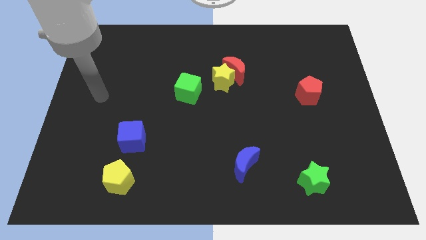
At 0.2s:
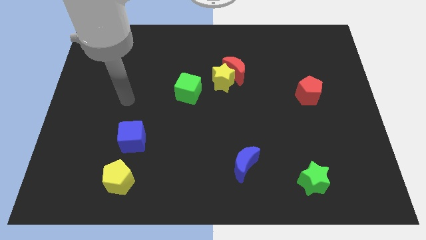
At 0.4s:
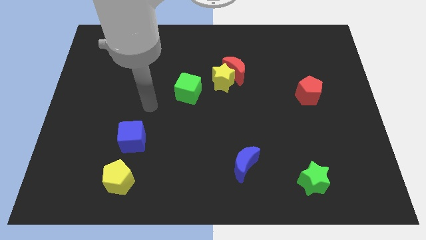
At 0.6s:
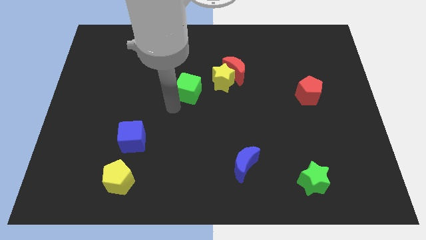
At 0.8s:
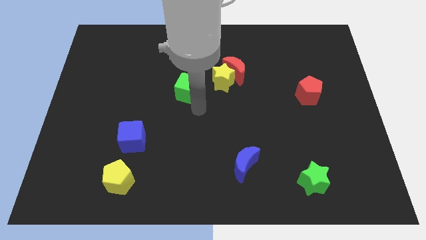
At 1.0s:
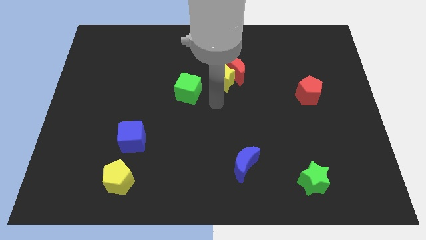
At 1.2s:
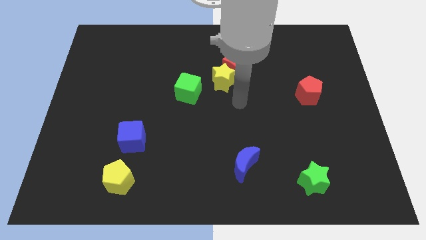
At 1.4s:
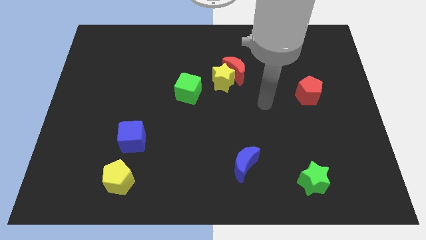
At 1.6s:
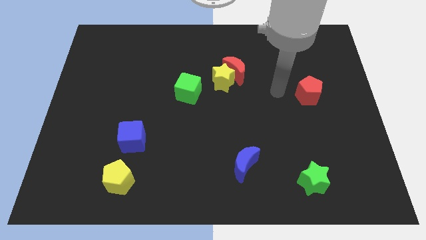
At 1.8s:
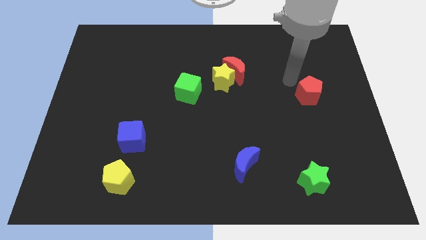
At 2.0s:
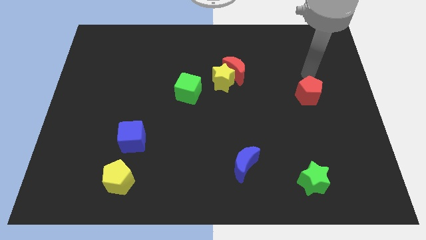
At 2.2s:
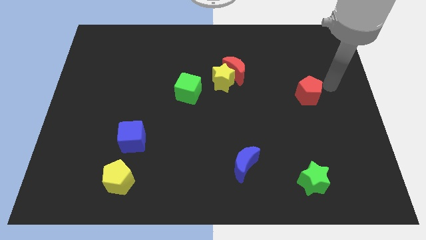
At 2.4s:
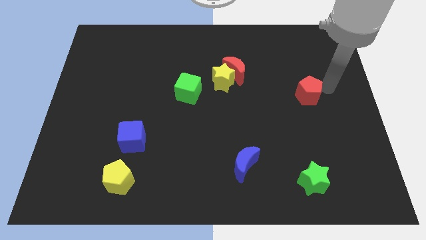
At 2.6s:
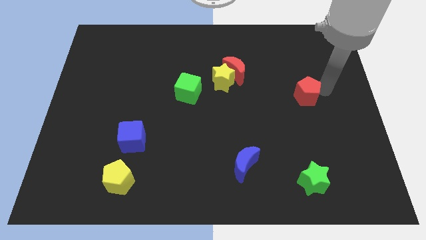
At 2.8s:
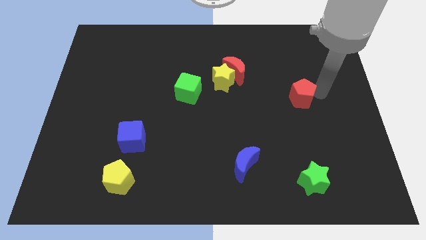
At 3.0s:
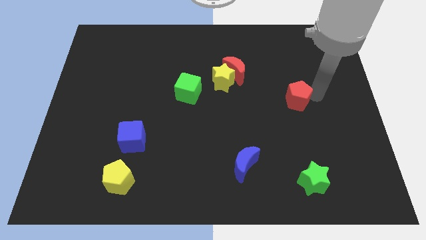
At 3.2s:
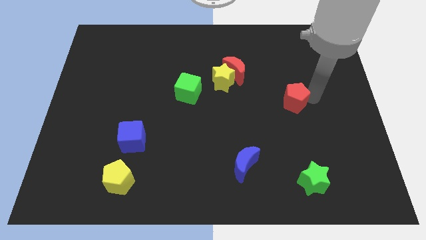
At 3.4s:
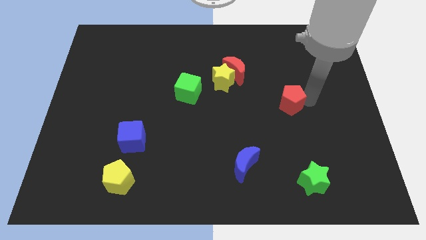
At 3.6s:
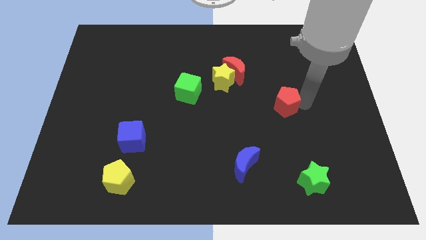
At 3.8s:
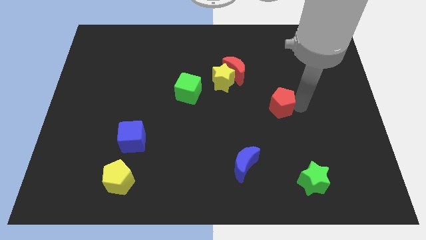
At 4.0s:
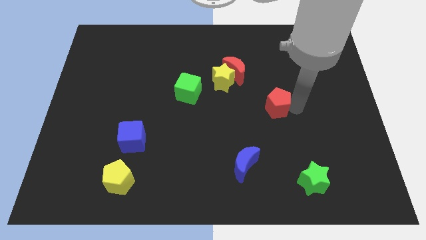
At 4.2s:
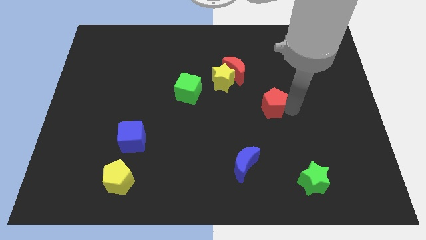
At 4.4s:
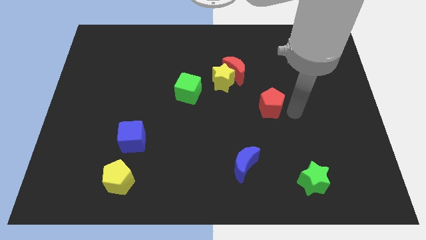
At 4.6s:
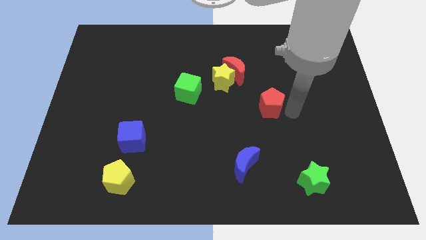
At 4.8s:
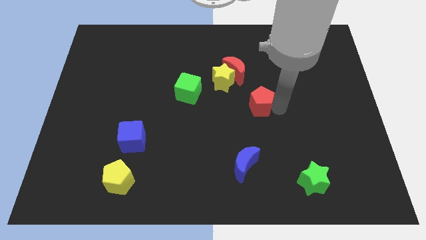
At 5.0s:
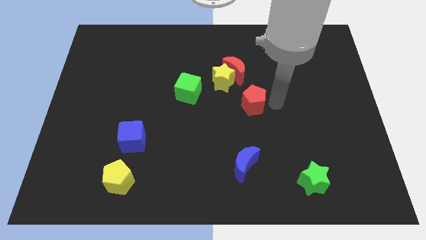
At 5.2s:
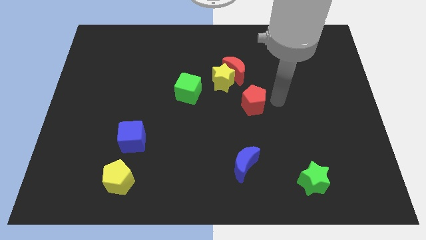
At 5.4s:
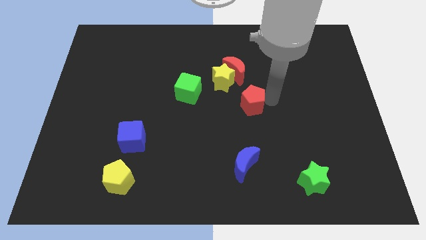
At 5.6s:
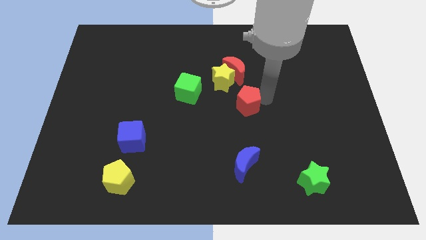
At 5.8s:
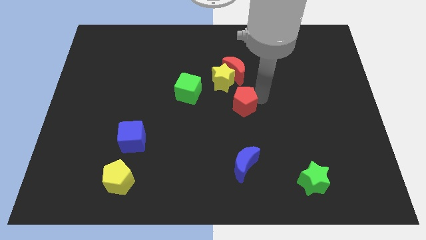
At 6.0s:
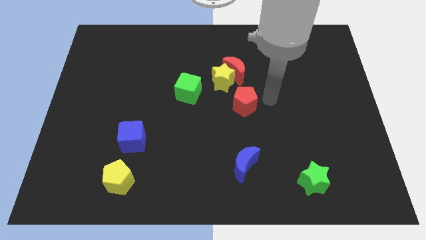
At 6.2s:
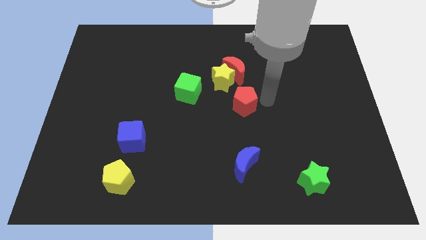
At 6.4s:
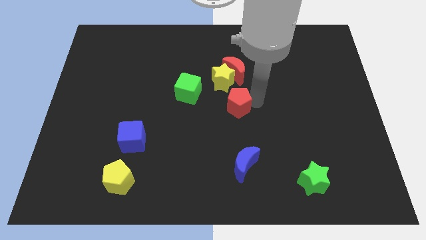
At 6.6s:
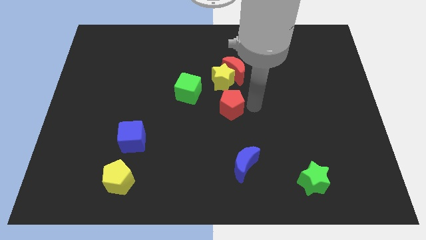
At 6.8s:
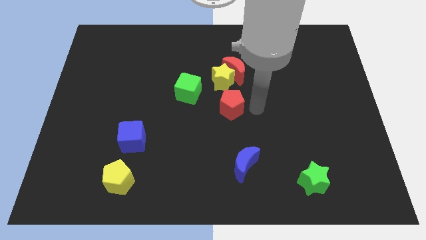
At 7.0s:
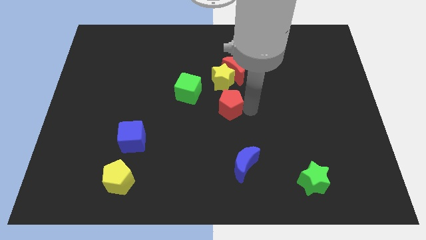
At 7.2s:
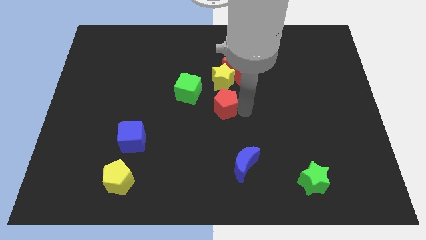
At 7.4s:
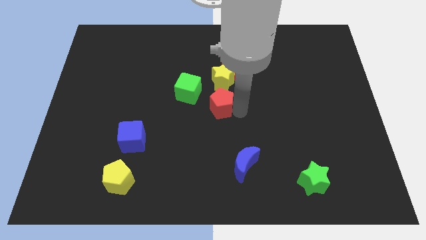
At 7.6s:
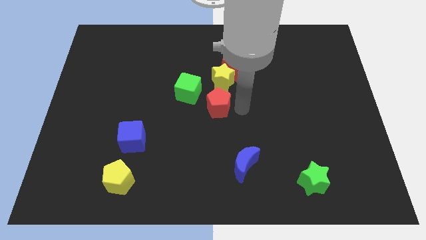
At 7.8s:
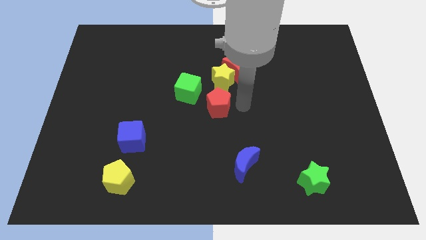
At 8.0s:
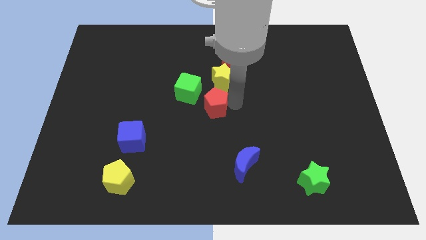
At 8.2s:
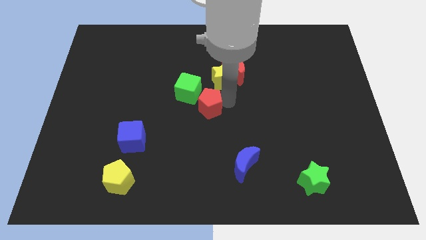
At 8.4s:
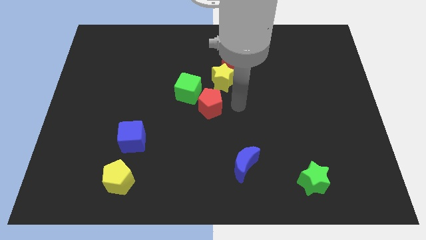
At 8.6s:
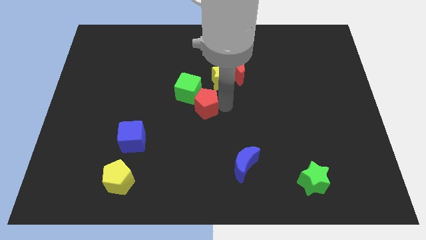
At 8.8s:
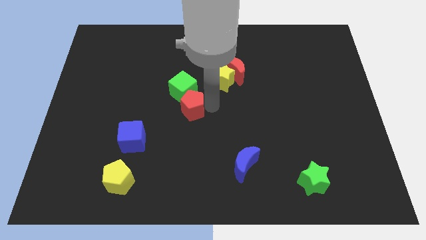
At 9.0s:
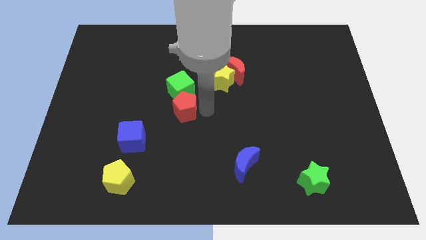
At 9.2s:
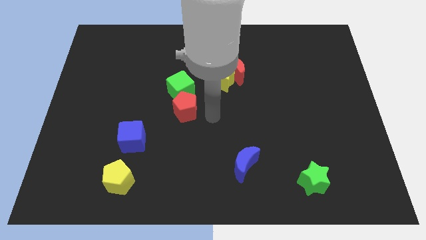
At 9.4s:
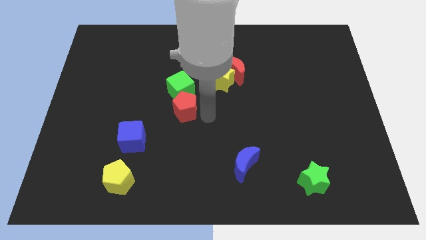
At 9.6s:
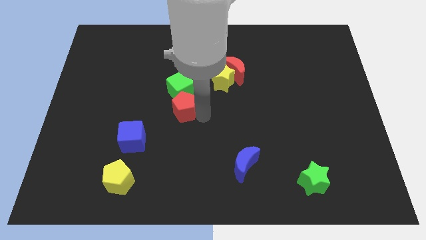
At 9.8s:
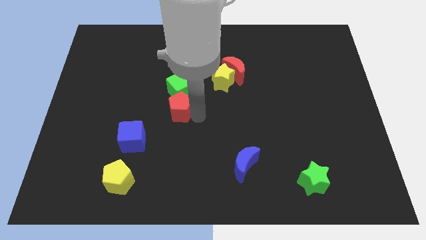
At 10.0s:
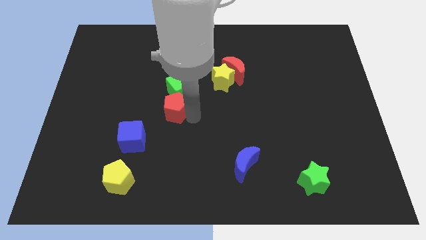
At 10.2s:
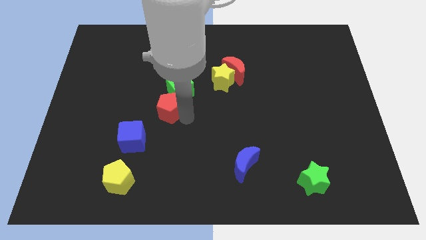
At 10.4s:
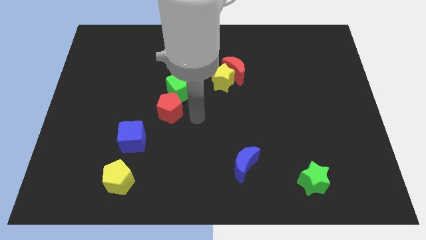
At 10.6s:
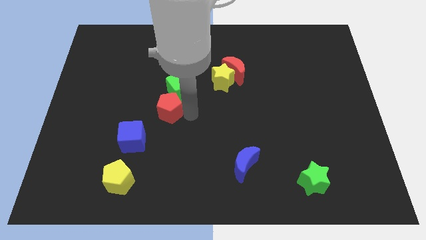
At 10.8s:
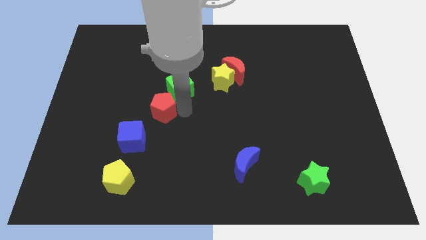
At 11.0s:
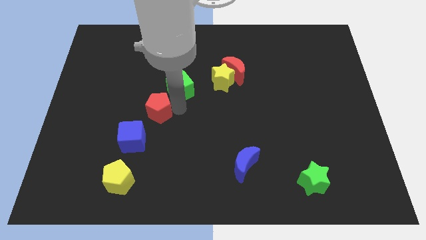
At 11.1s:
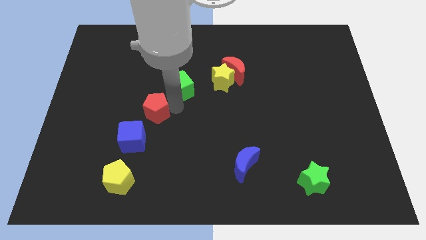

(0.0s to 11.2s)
push the red pentagon above the blue cube

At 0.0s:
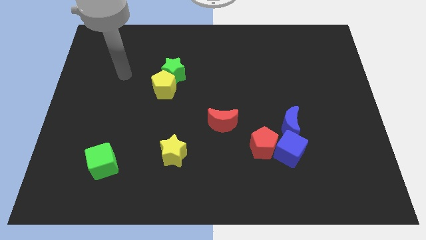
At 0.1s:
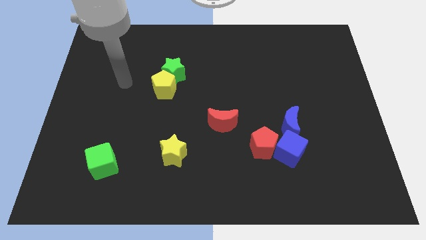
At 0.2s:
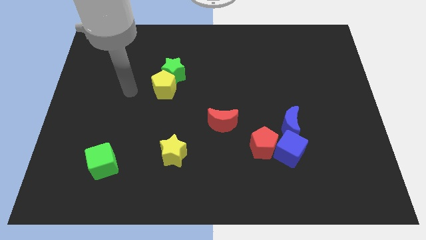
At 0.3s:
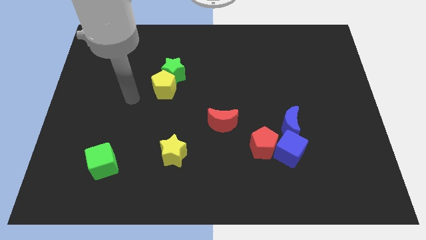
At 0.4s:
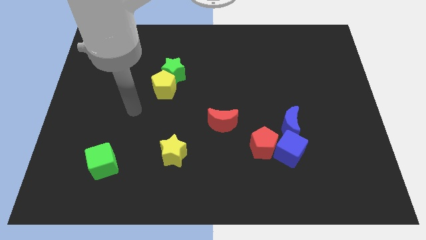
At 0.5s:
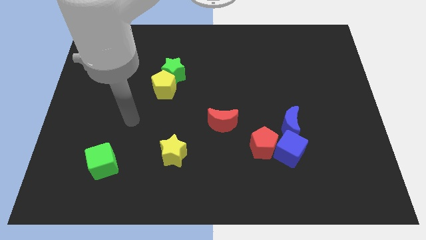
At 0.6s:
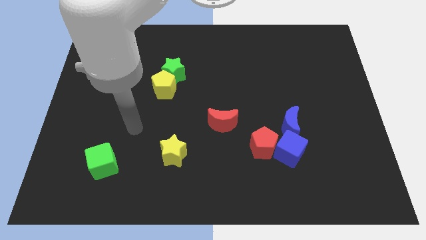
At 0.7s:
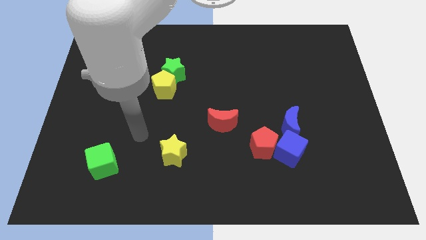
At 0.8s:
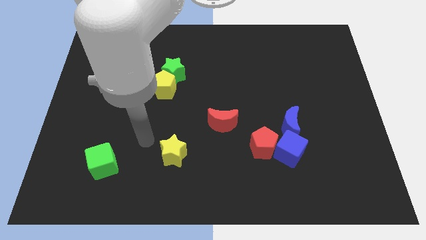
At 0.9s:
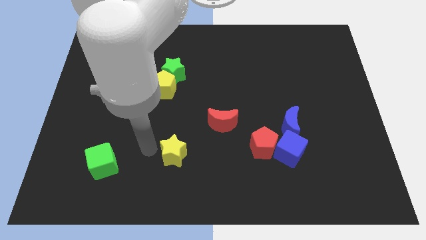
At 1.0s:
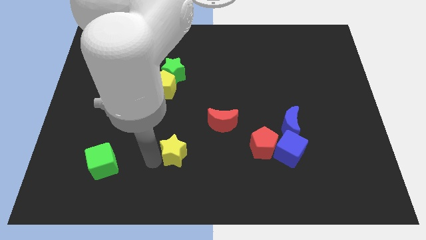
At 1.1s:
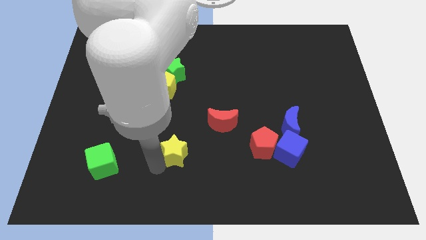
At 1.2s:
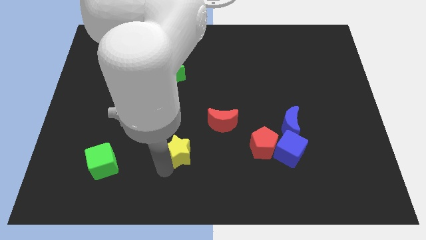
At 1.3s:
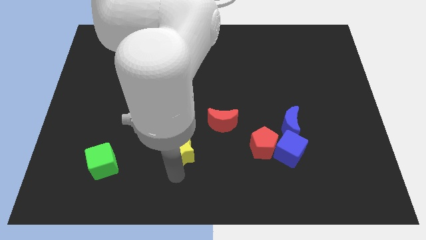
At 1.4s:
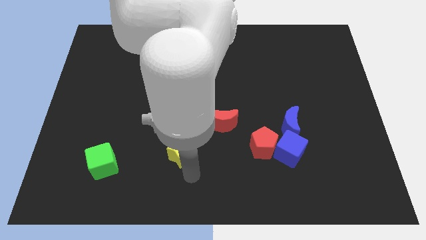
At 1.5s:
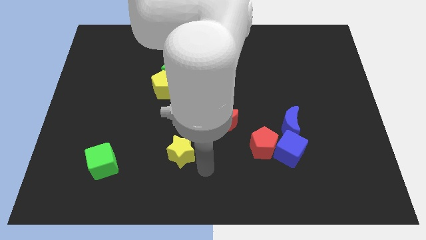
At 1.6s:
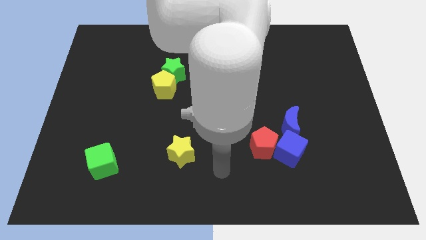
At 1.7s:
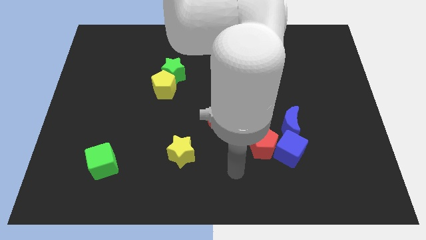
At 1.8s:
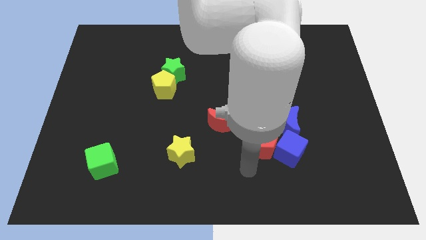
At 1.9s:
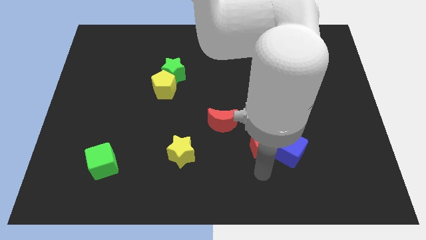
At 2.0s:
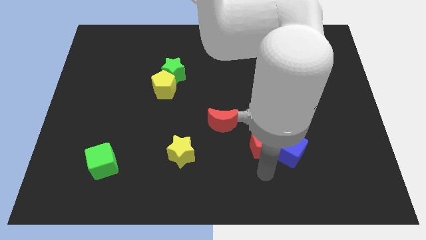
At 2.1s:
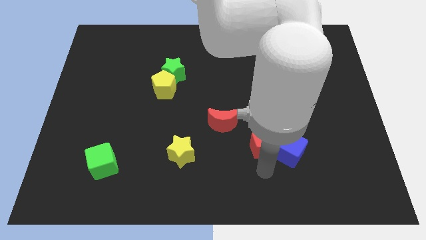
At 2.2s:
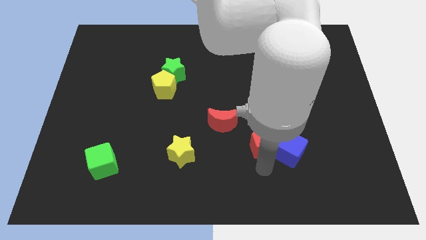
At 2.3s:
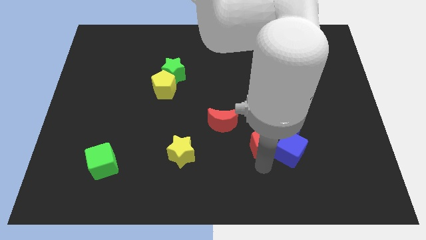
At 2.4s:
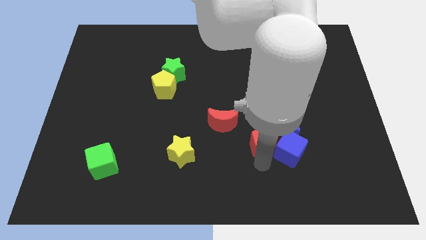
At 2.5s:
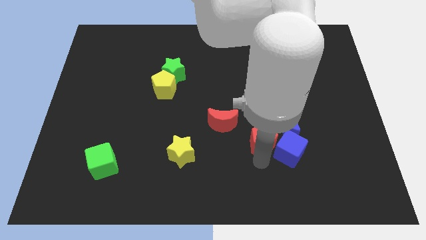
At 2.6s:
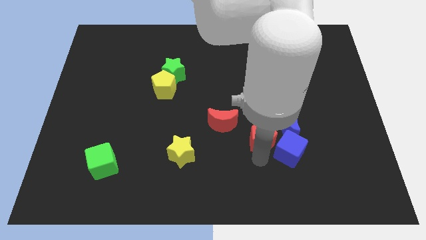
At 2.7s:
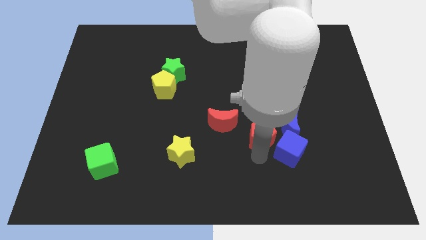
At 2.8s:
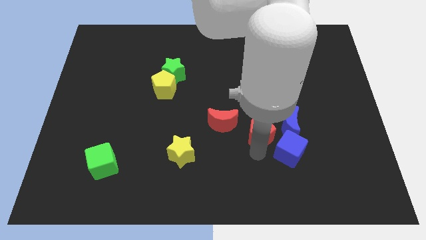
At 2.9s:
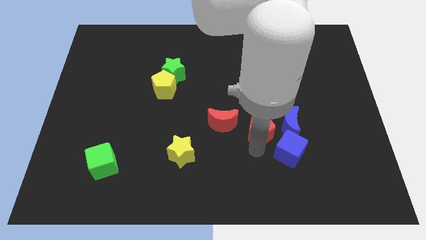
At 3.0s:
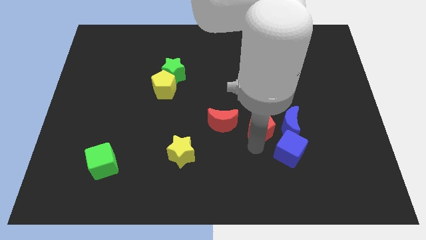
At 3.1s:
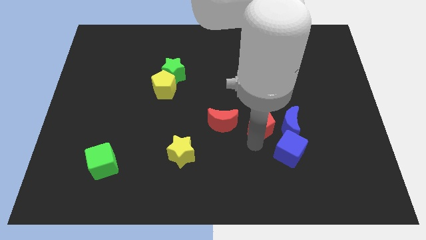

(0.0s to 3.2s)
slide the red pentagon to the top left of the blue moon
